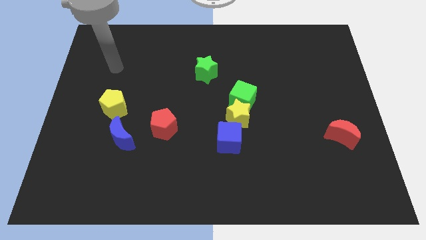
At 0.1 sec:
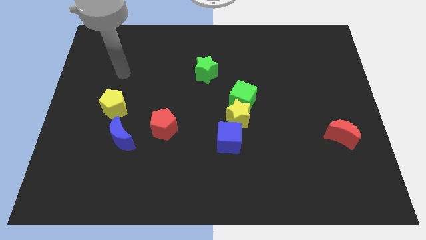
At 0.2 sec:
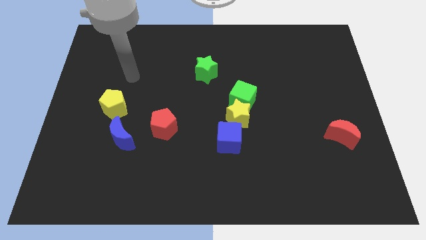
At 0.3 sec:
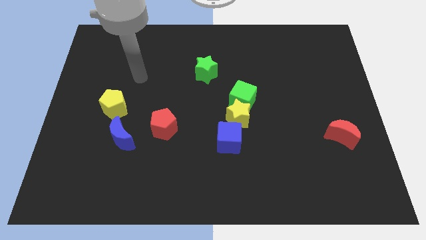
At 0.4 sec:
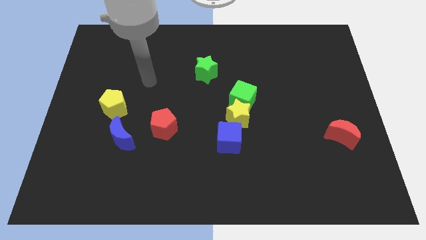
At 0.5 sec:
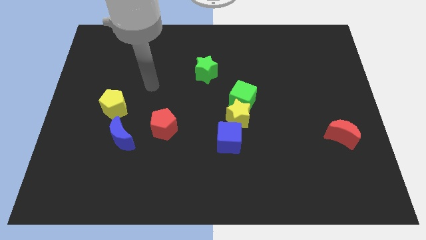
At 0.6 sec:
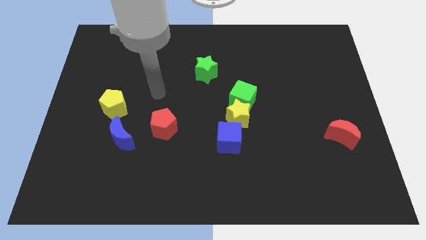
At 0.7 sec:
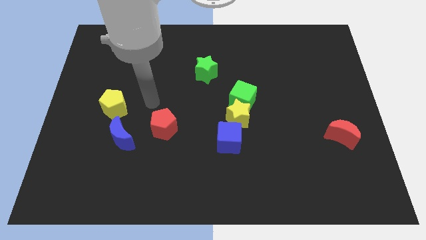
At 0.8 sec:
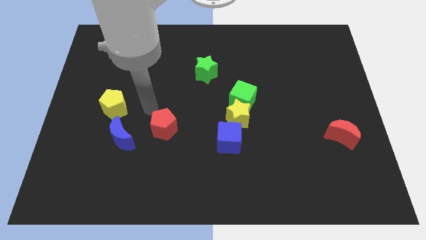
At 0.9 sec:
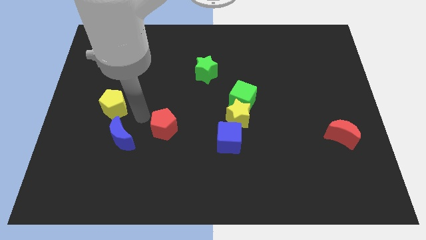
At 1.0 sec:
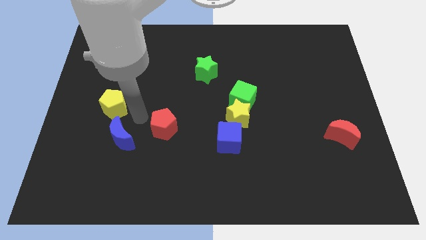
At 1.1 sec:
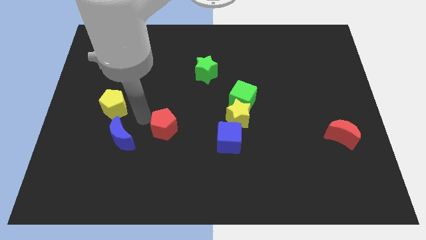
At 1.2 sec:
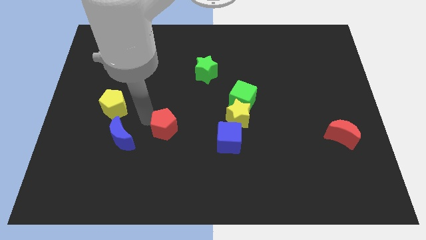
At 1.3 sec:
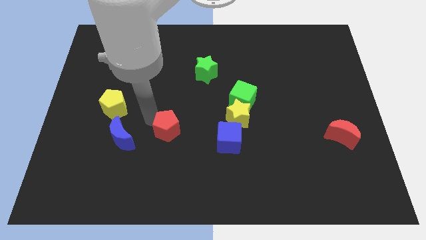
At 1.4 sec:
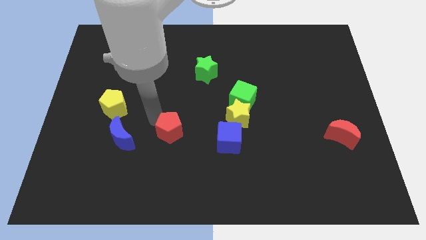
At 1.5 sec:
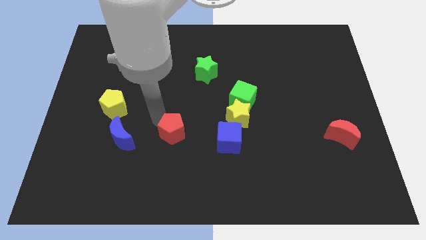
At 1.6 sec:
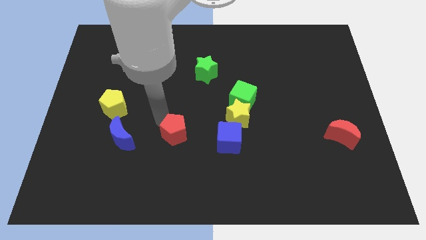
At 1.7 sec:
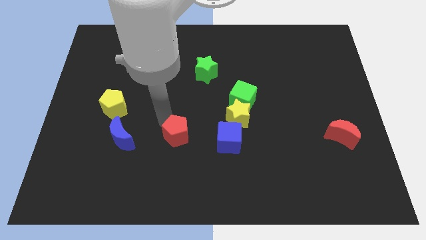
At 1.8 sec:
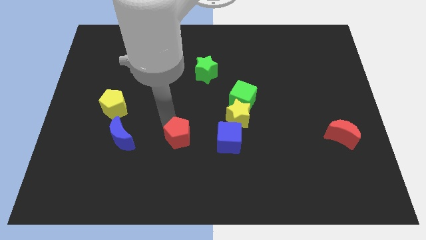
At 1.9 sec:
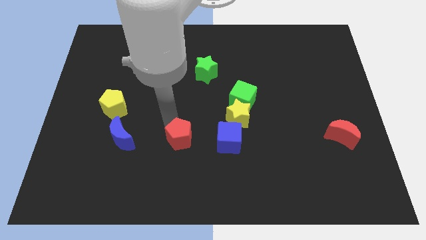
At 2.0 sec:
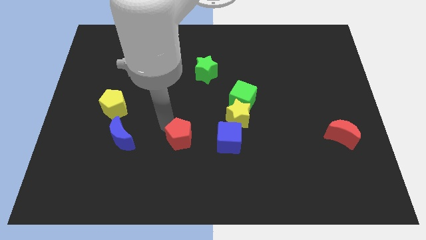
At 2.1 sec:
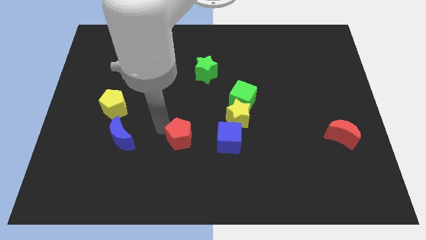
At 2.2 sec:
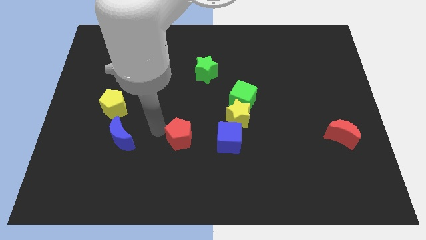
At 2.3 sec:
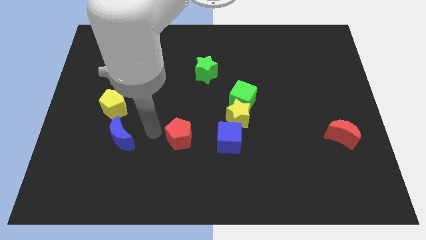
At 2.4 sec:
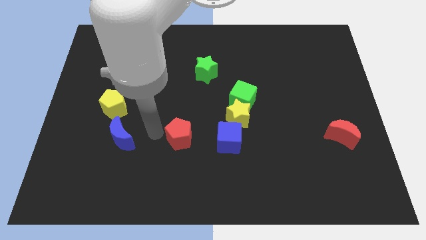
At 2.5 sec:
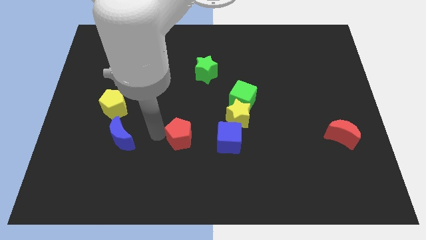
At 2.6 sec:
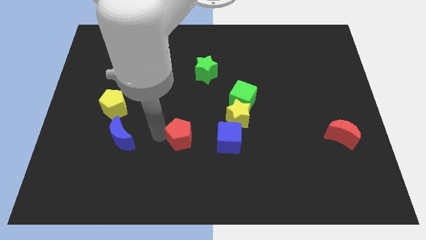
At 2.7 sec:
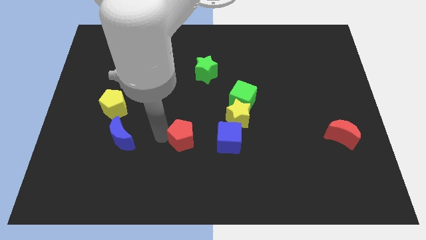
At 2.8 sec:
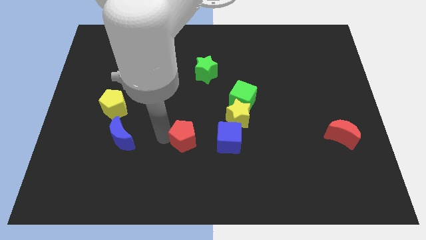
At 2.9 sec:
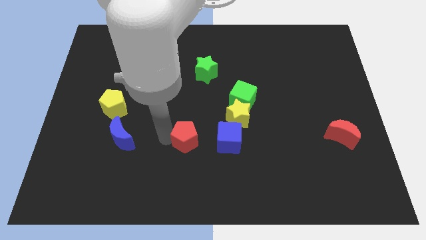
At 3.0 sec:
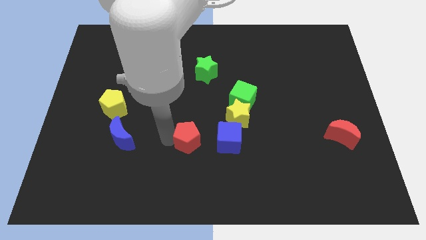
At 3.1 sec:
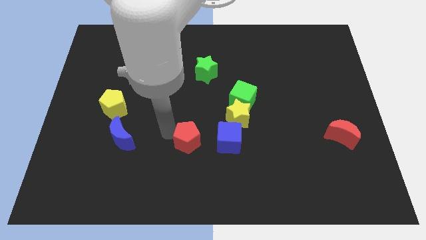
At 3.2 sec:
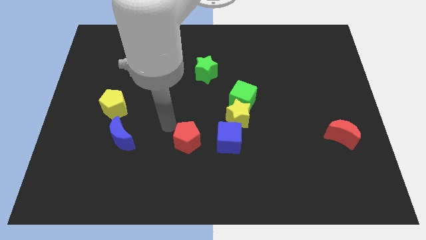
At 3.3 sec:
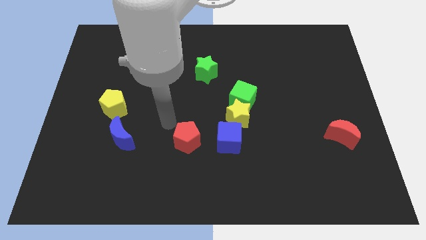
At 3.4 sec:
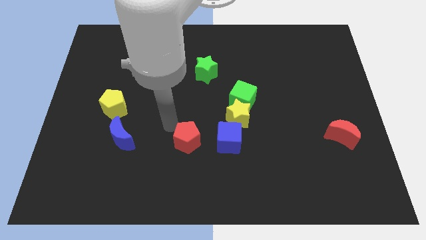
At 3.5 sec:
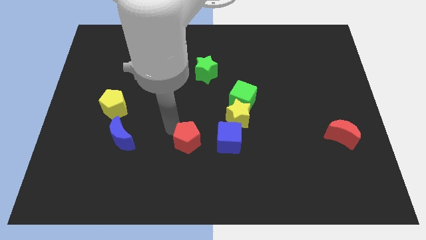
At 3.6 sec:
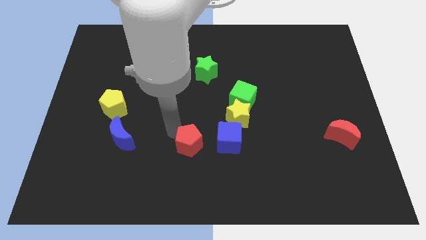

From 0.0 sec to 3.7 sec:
slightly push the red pentagon downwards and then right

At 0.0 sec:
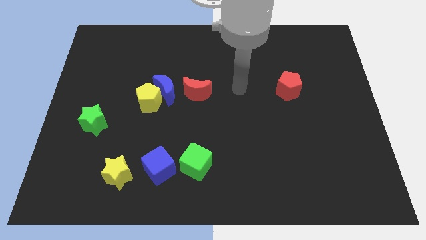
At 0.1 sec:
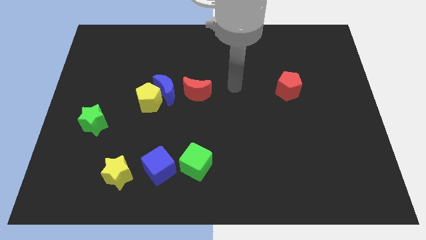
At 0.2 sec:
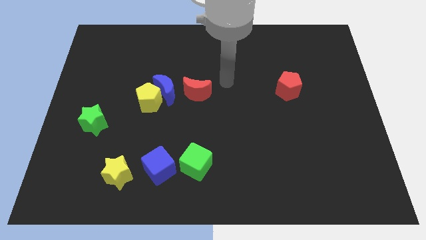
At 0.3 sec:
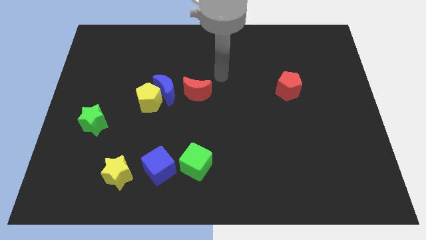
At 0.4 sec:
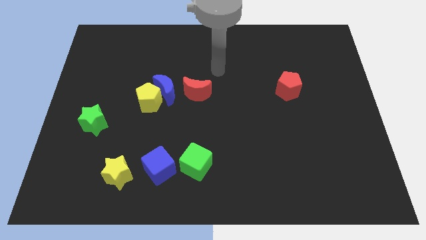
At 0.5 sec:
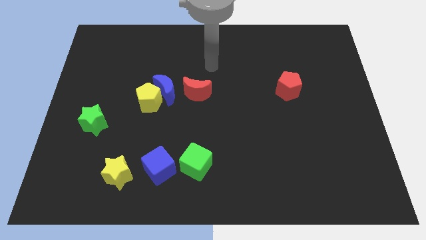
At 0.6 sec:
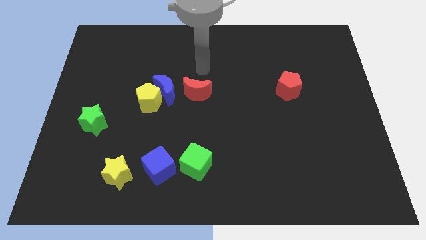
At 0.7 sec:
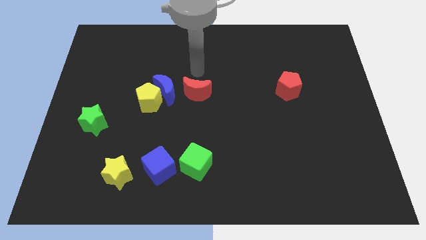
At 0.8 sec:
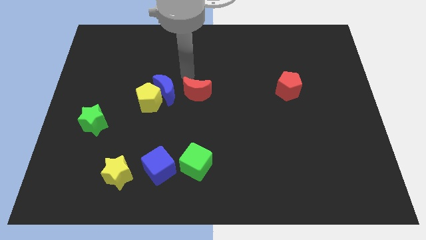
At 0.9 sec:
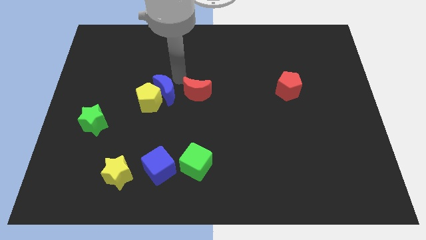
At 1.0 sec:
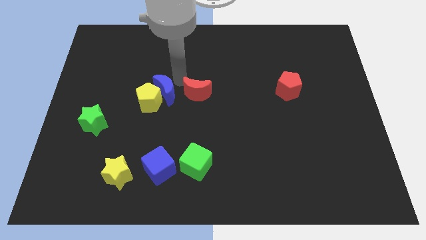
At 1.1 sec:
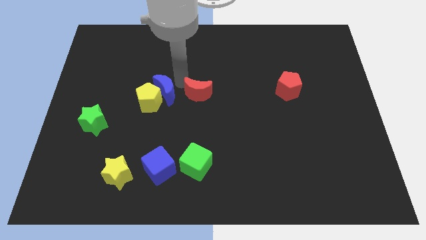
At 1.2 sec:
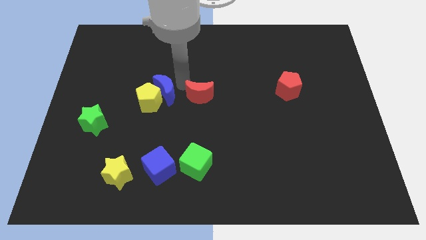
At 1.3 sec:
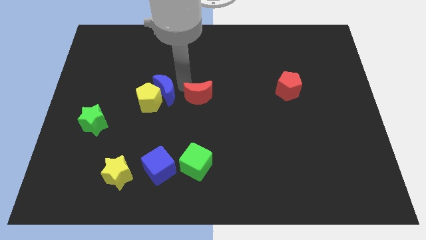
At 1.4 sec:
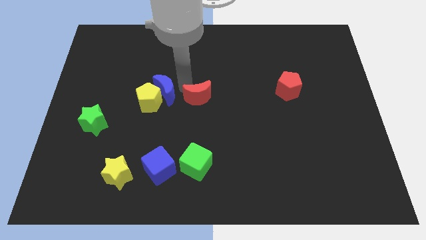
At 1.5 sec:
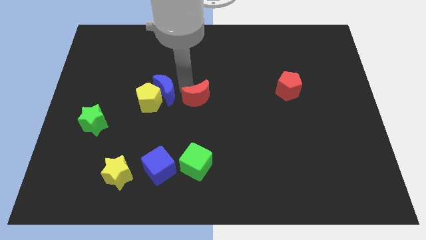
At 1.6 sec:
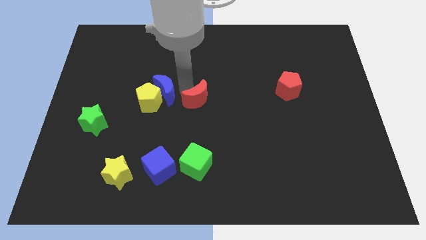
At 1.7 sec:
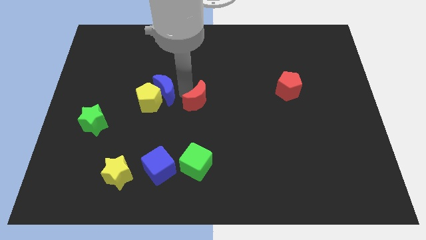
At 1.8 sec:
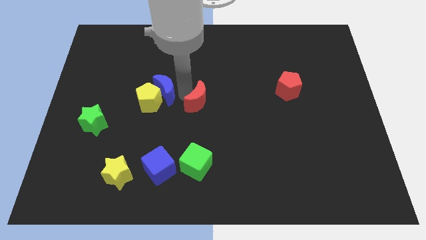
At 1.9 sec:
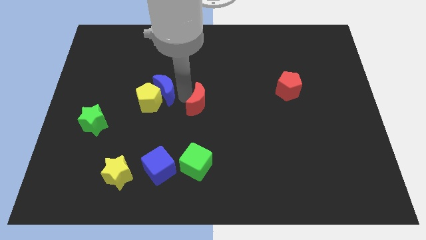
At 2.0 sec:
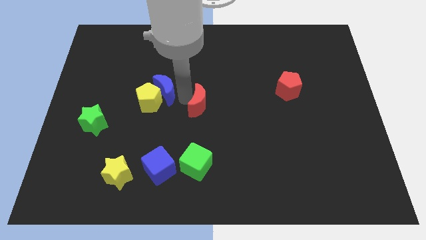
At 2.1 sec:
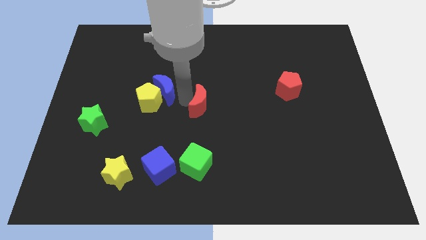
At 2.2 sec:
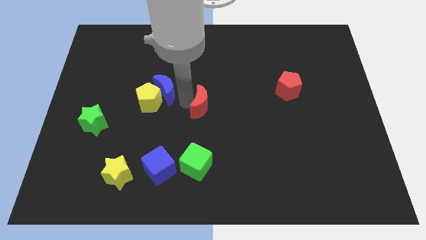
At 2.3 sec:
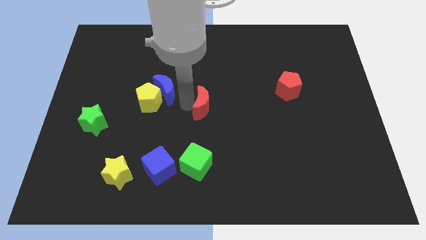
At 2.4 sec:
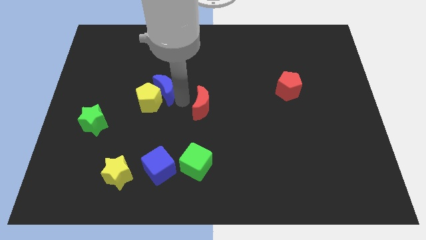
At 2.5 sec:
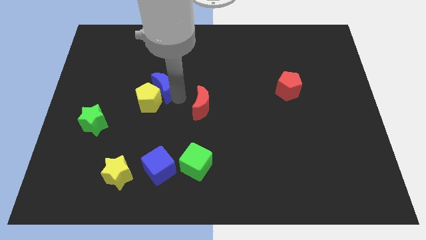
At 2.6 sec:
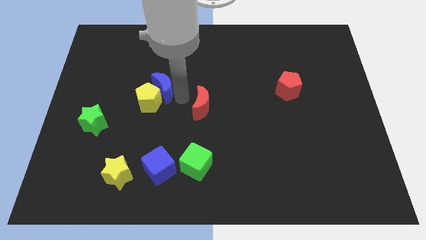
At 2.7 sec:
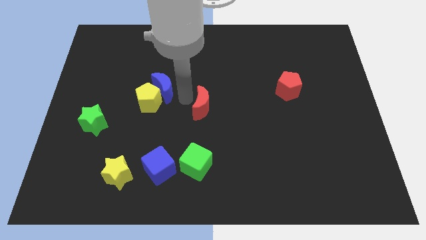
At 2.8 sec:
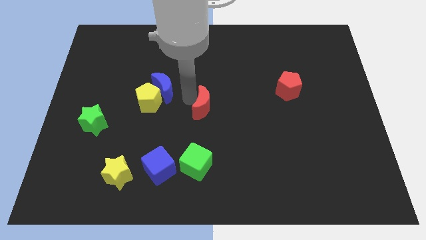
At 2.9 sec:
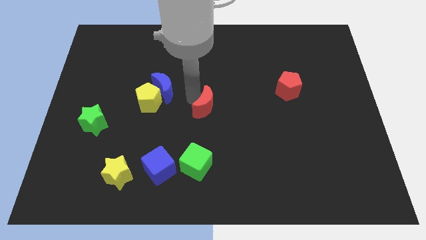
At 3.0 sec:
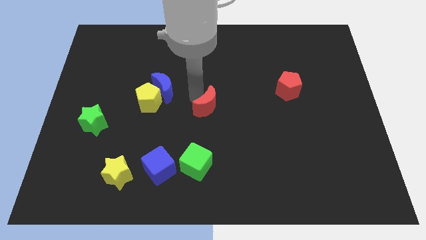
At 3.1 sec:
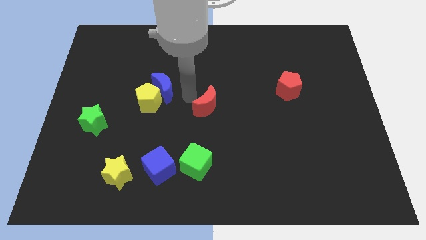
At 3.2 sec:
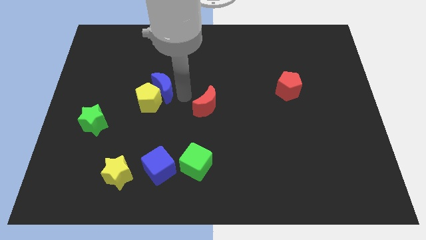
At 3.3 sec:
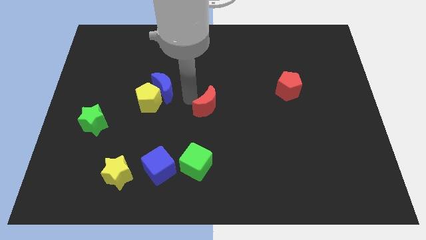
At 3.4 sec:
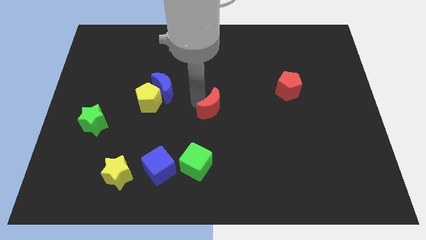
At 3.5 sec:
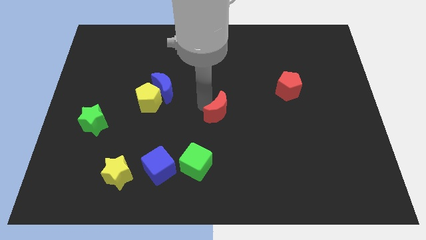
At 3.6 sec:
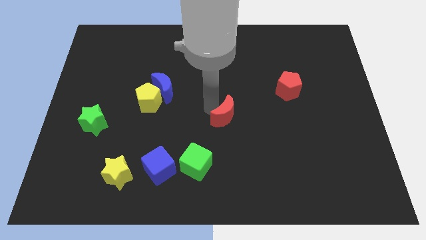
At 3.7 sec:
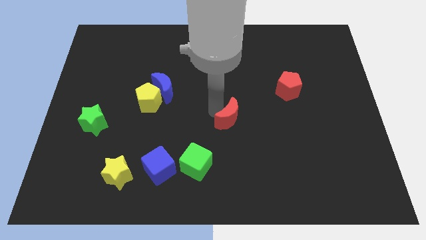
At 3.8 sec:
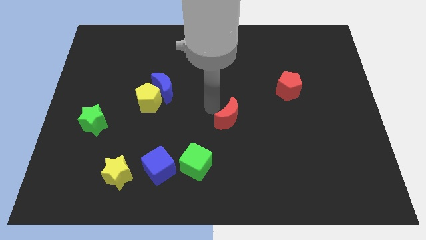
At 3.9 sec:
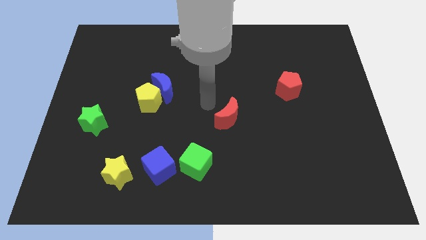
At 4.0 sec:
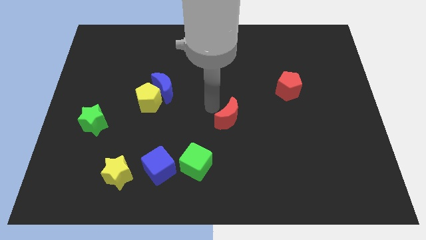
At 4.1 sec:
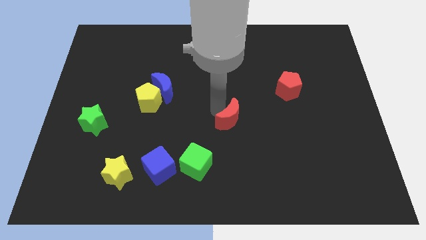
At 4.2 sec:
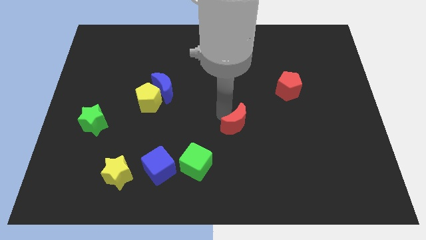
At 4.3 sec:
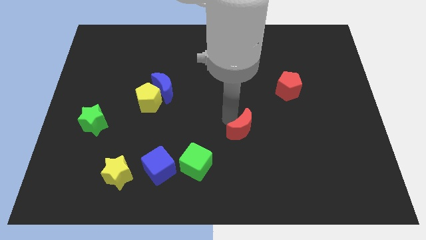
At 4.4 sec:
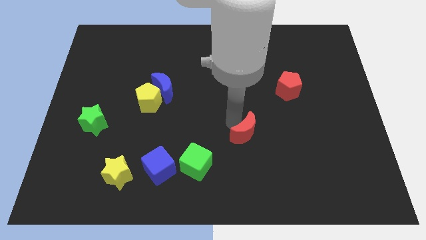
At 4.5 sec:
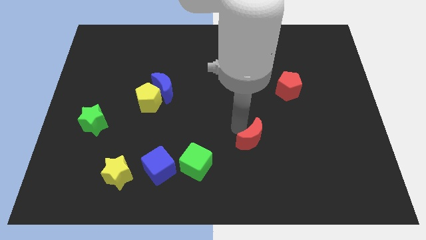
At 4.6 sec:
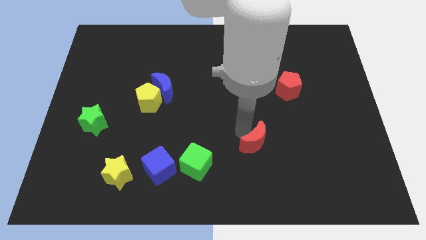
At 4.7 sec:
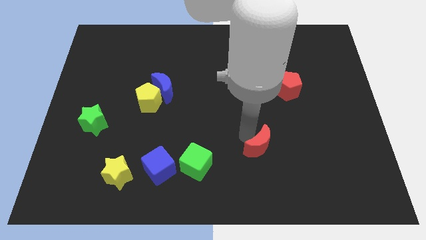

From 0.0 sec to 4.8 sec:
push the red moon down and then to the right
